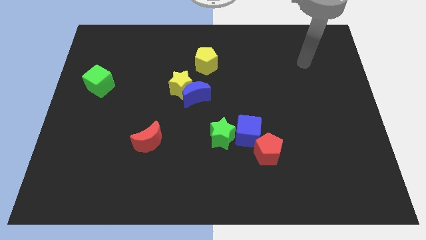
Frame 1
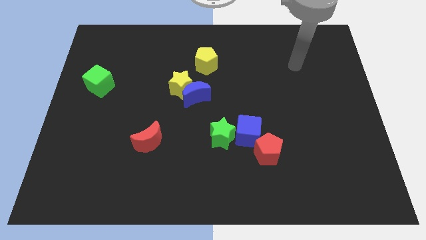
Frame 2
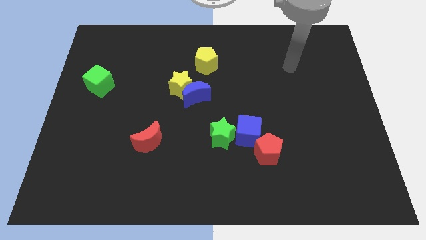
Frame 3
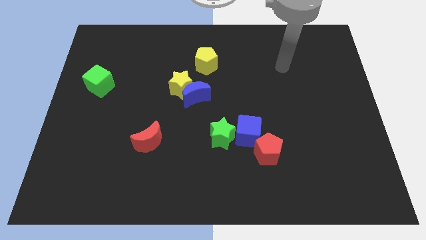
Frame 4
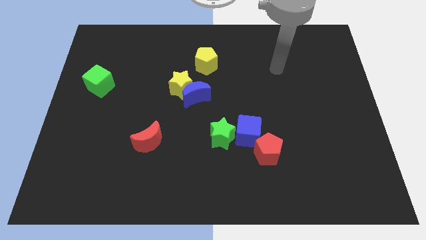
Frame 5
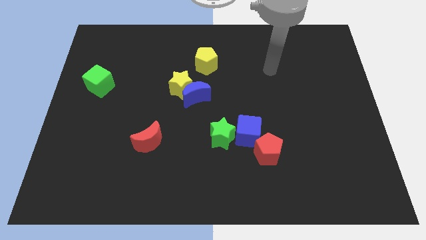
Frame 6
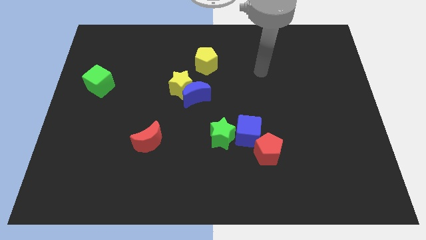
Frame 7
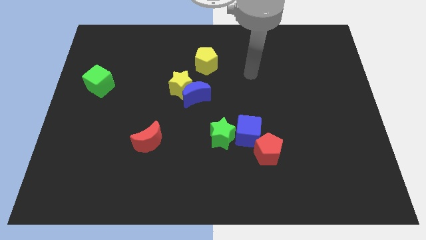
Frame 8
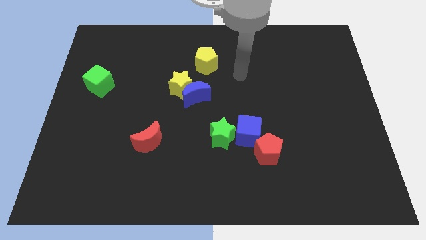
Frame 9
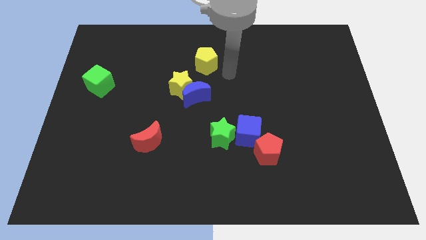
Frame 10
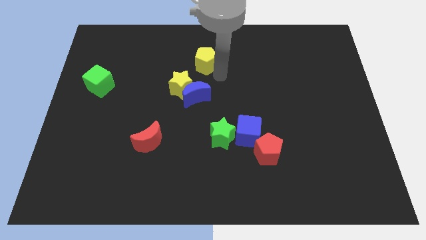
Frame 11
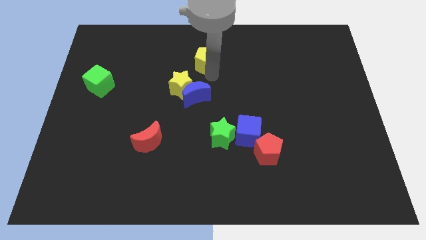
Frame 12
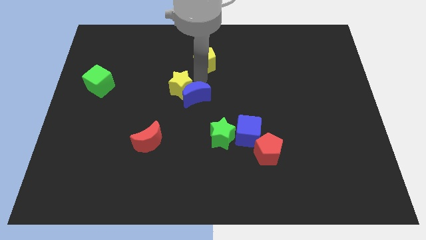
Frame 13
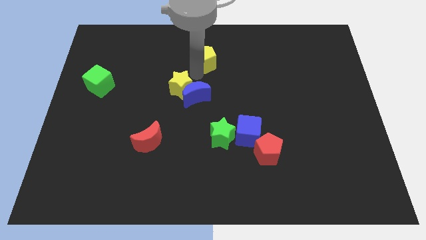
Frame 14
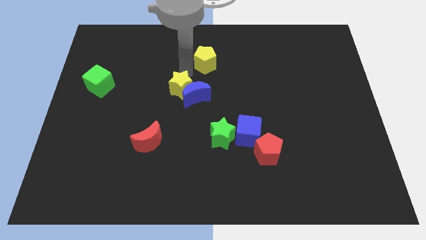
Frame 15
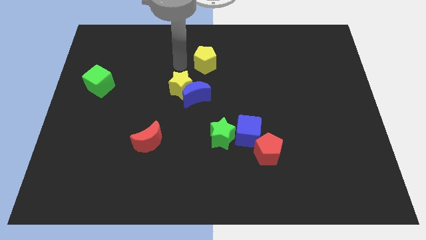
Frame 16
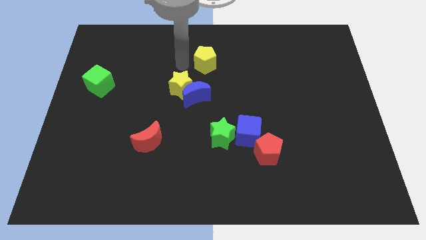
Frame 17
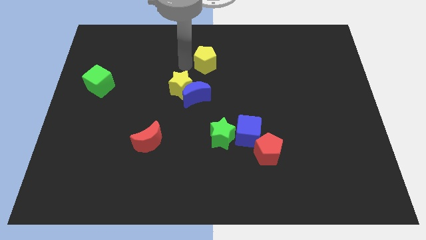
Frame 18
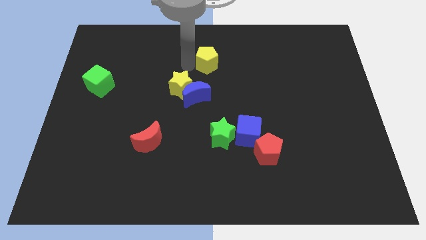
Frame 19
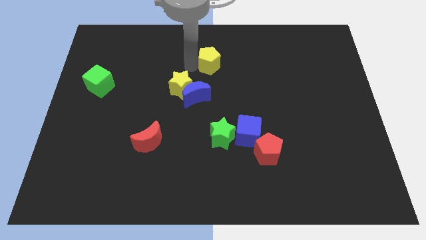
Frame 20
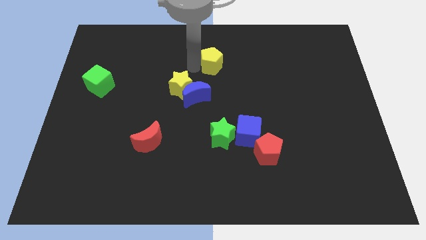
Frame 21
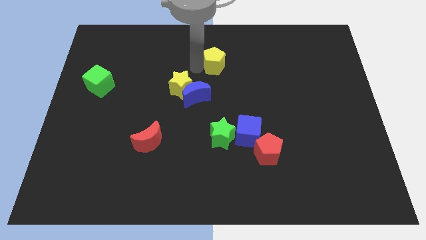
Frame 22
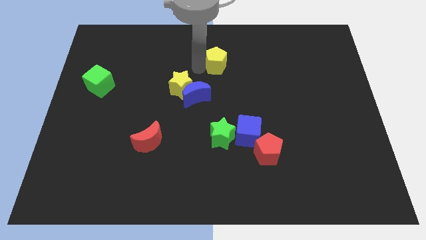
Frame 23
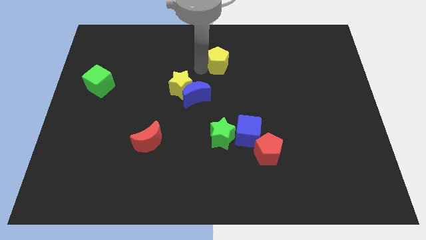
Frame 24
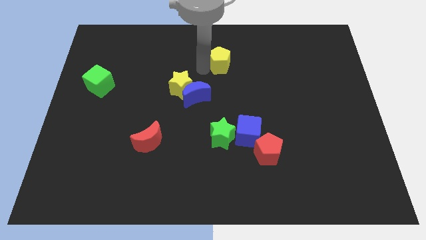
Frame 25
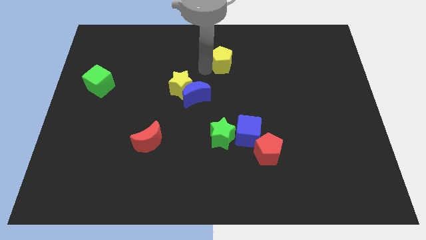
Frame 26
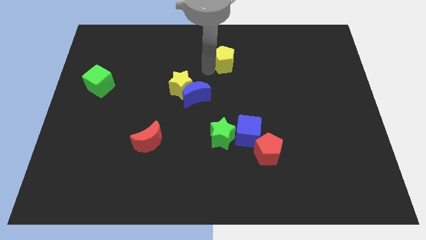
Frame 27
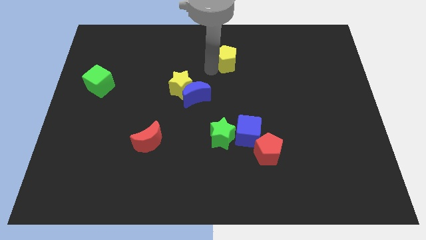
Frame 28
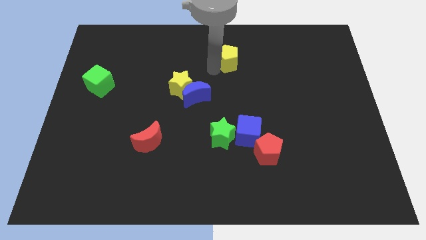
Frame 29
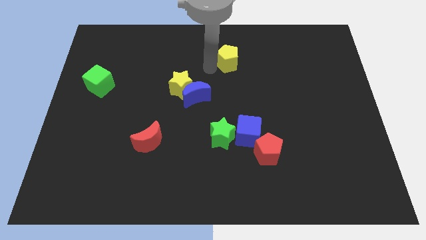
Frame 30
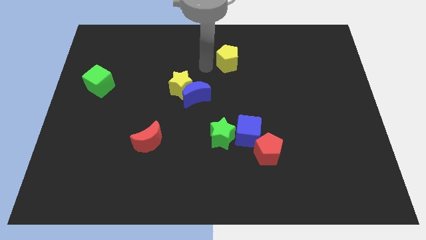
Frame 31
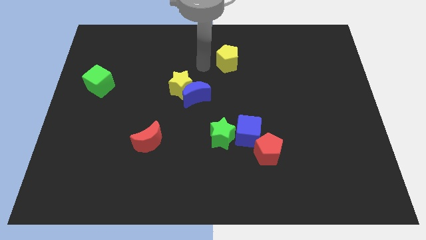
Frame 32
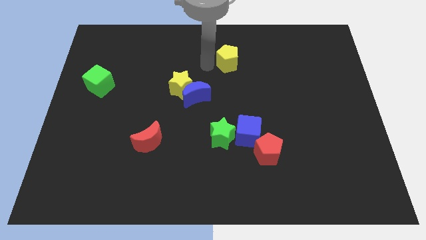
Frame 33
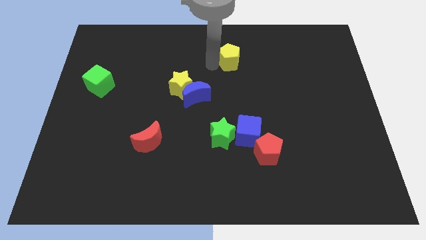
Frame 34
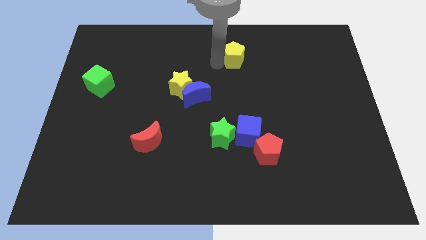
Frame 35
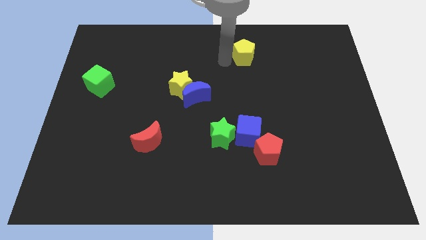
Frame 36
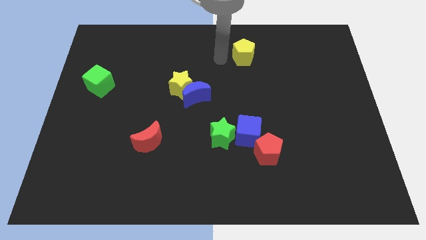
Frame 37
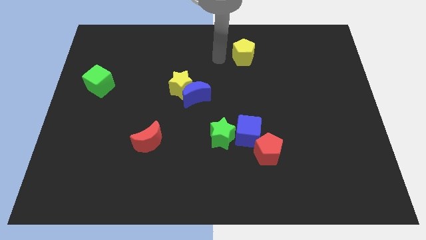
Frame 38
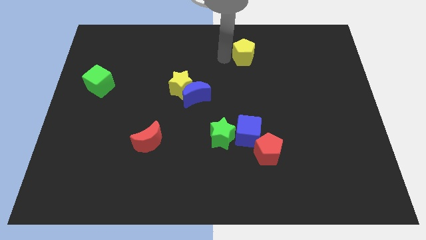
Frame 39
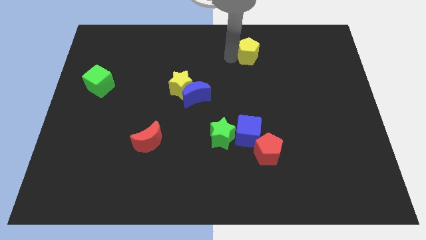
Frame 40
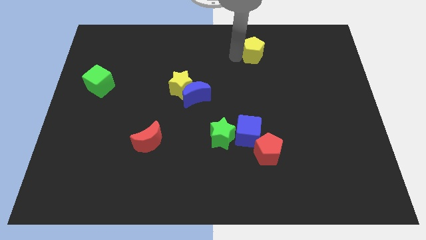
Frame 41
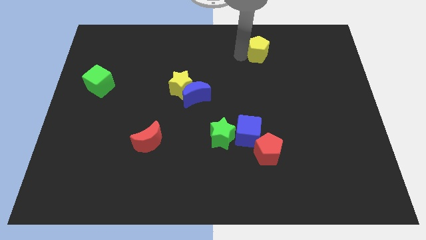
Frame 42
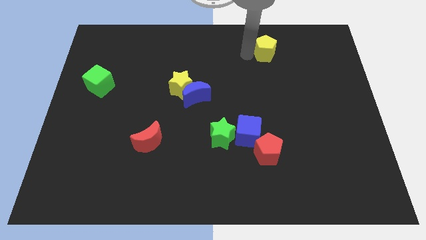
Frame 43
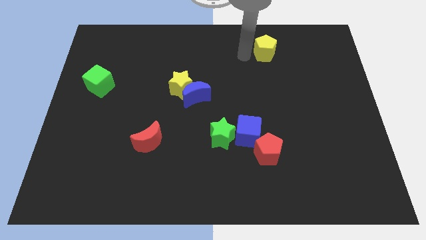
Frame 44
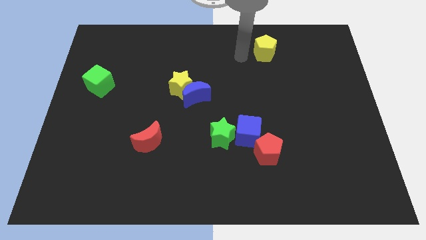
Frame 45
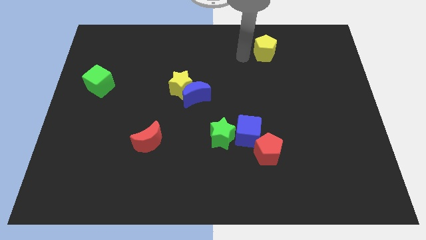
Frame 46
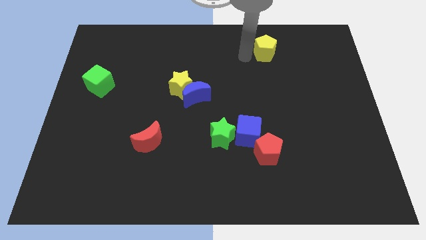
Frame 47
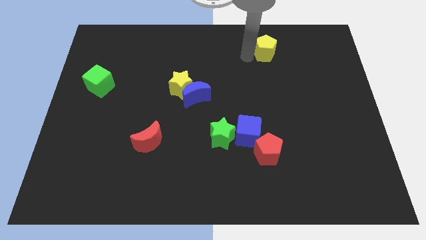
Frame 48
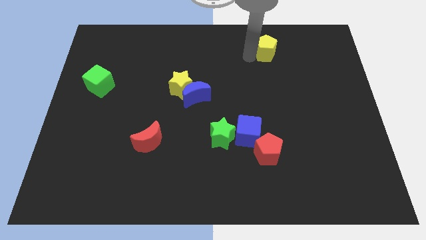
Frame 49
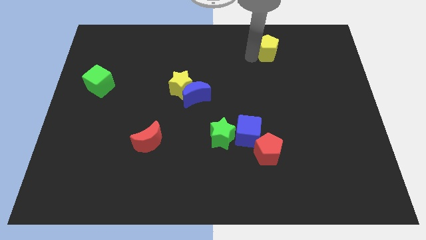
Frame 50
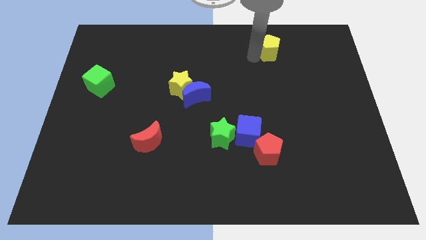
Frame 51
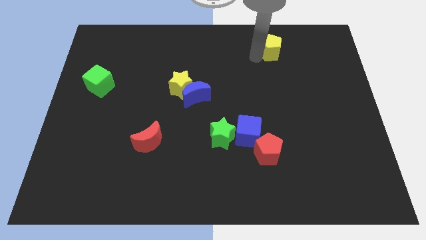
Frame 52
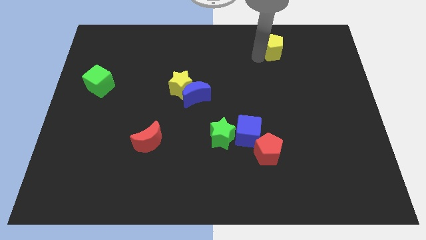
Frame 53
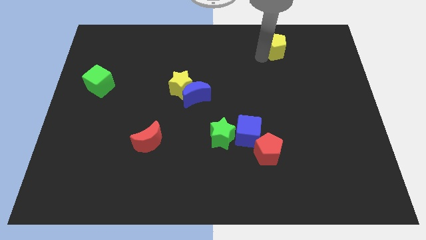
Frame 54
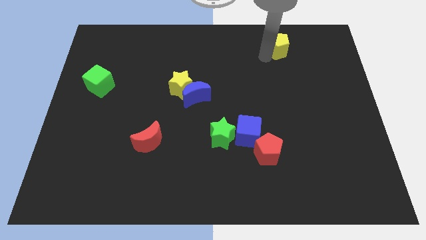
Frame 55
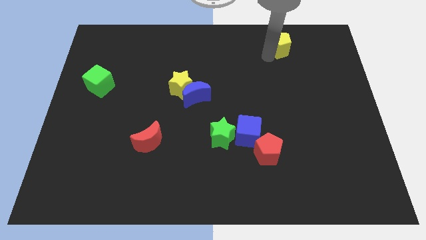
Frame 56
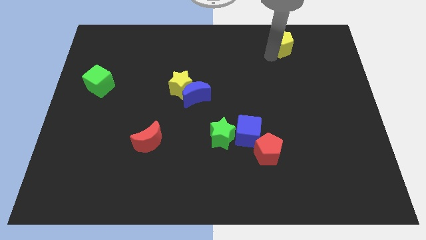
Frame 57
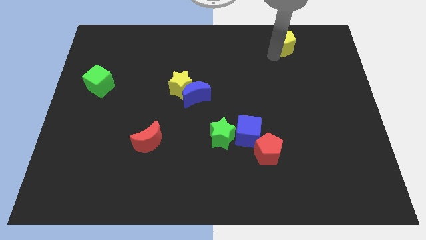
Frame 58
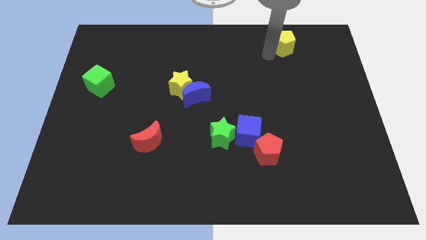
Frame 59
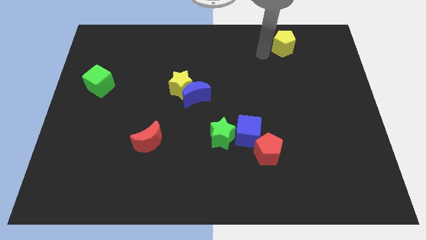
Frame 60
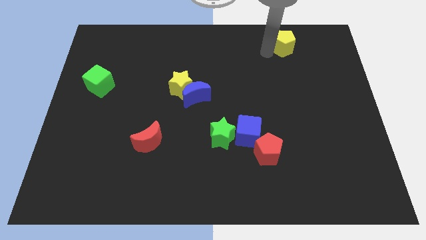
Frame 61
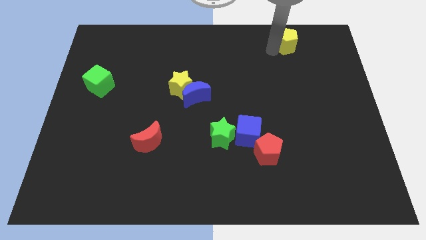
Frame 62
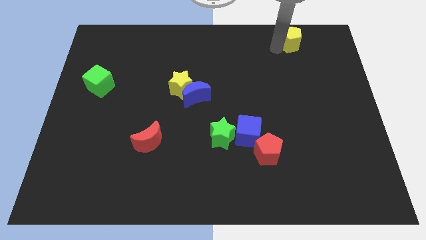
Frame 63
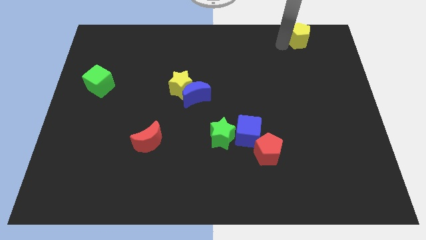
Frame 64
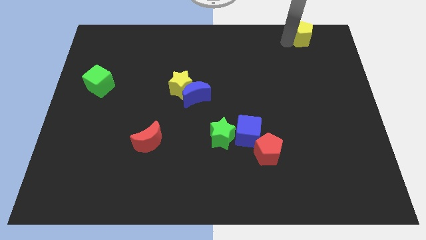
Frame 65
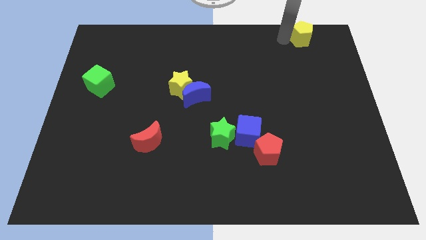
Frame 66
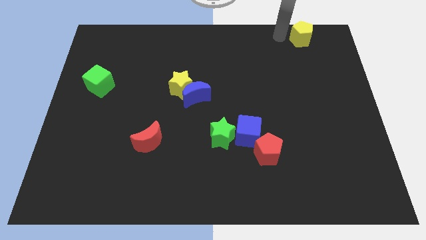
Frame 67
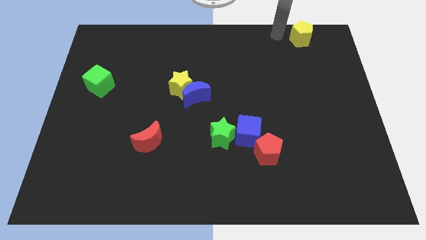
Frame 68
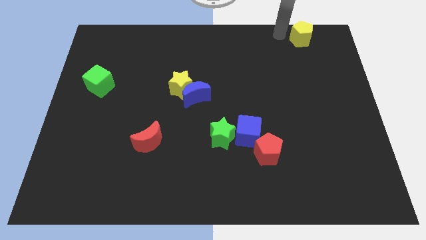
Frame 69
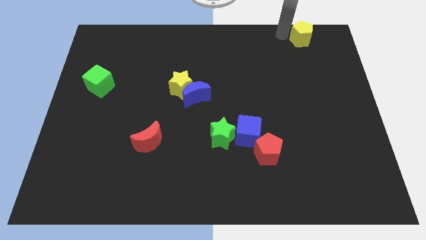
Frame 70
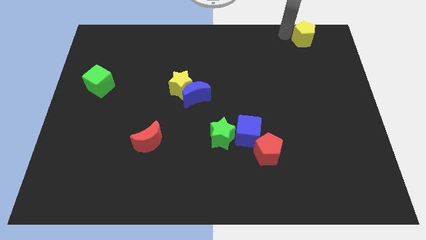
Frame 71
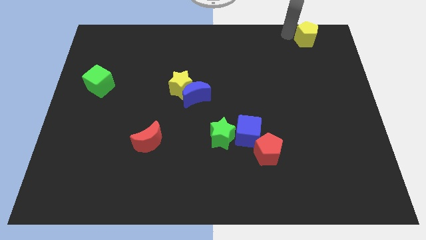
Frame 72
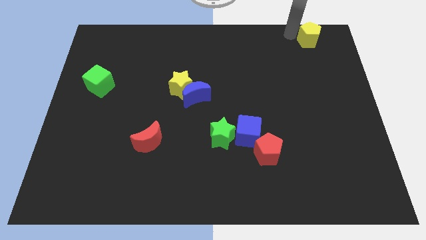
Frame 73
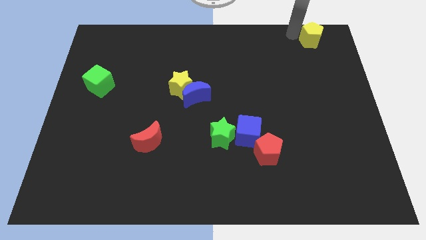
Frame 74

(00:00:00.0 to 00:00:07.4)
put the yellow pentagon to the top right of the board
